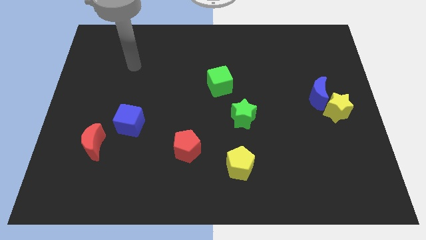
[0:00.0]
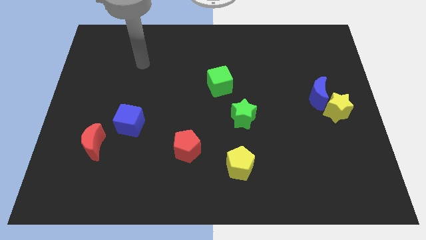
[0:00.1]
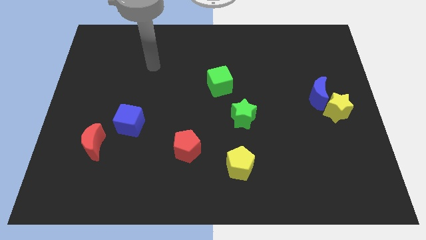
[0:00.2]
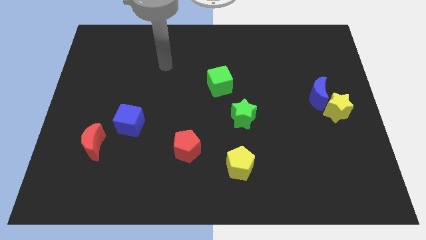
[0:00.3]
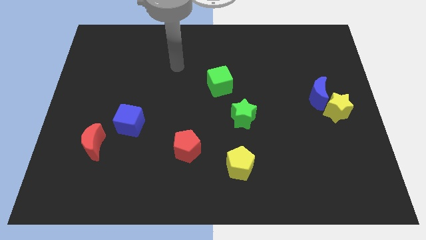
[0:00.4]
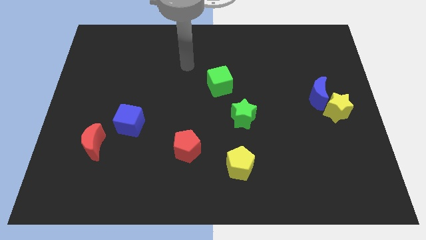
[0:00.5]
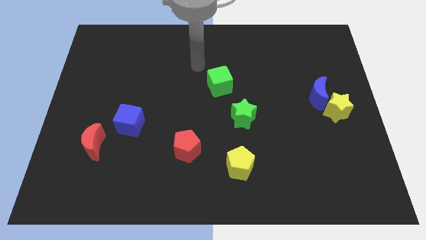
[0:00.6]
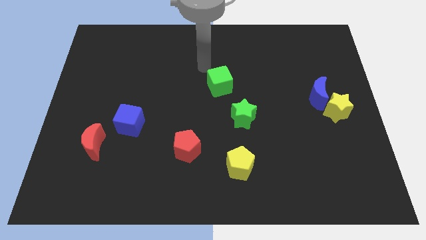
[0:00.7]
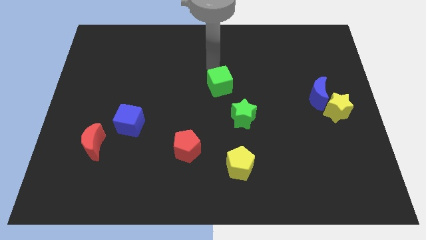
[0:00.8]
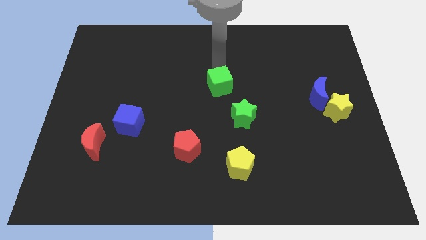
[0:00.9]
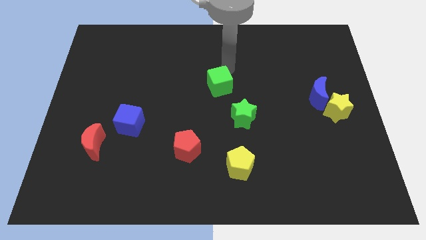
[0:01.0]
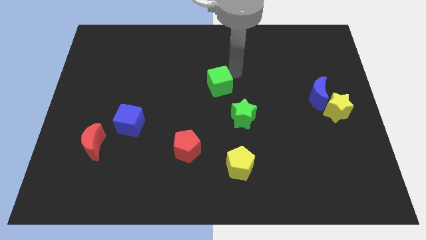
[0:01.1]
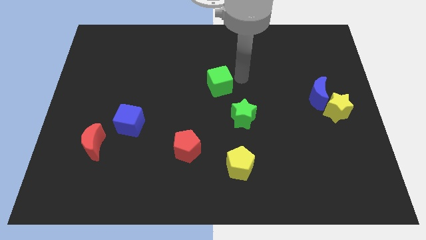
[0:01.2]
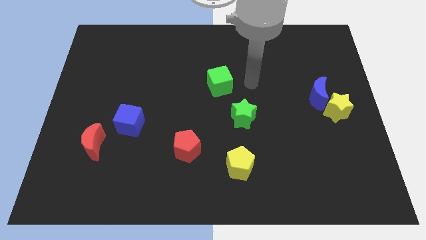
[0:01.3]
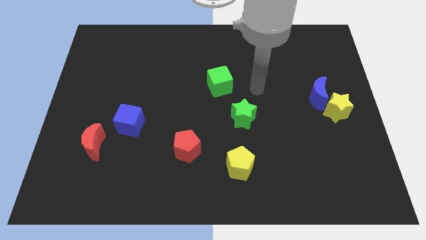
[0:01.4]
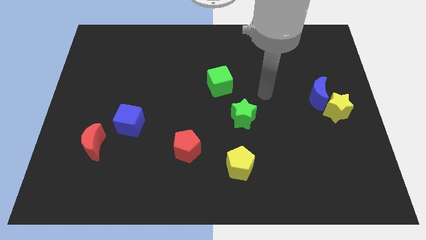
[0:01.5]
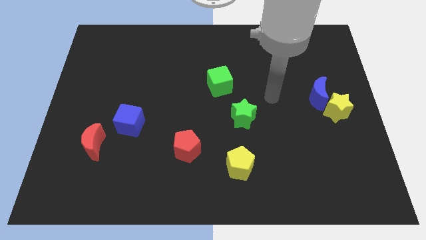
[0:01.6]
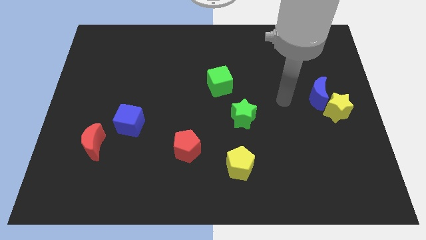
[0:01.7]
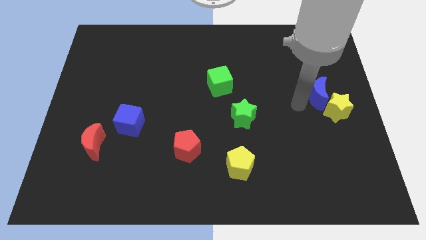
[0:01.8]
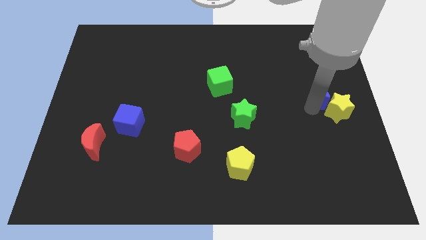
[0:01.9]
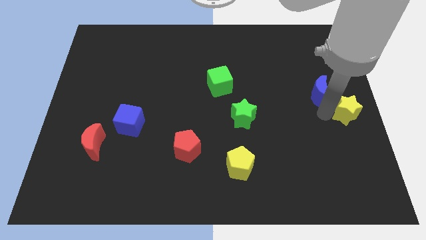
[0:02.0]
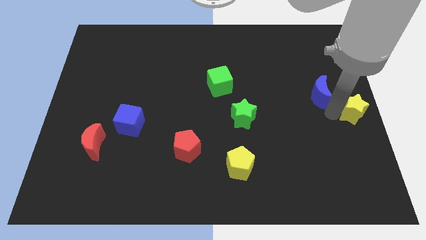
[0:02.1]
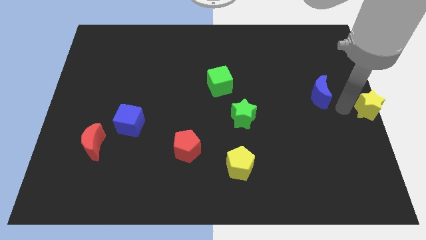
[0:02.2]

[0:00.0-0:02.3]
separate the blue moon from the yellow star

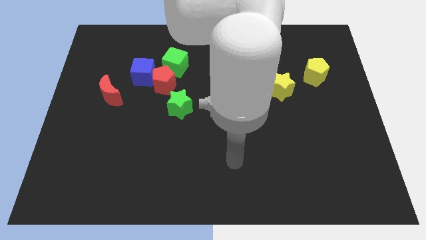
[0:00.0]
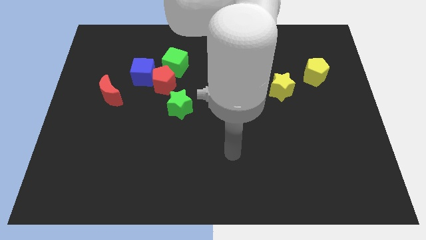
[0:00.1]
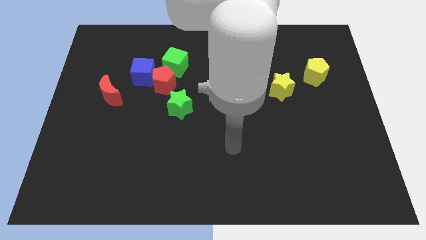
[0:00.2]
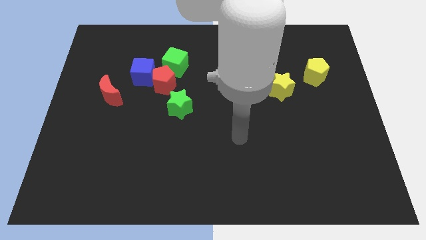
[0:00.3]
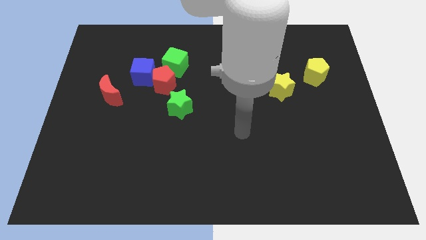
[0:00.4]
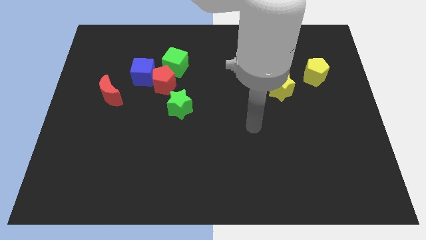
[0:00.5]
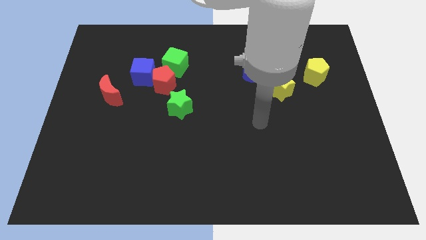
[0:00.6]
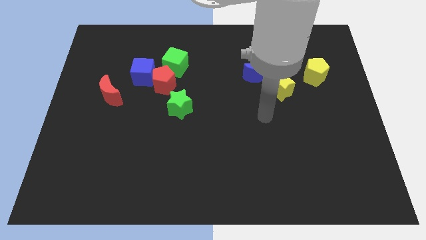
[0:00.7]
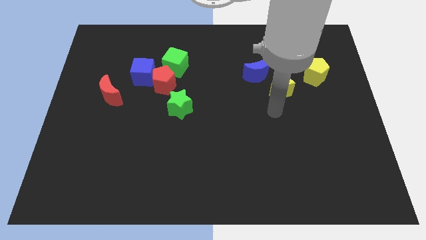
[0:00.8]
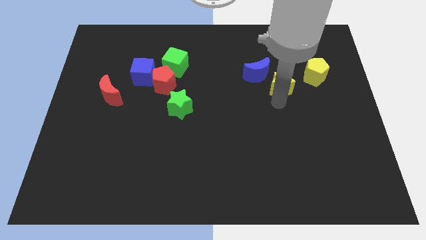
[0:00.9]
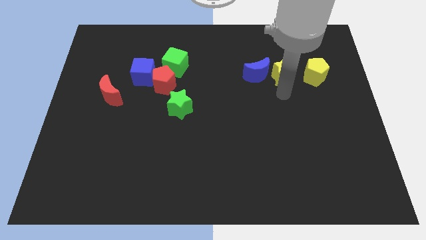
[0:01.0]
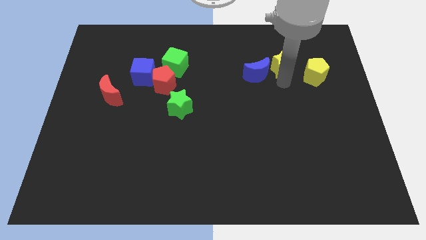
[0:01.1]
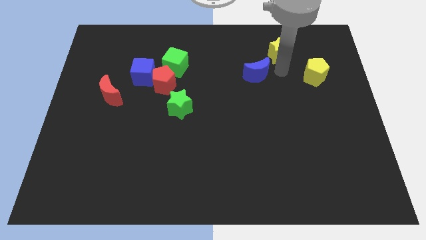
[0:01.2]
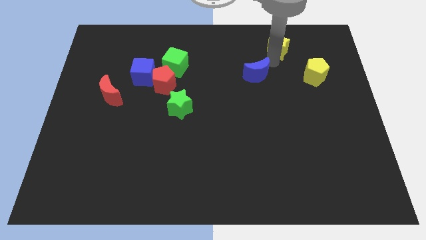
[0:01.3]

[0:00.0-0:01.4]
pull the blue moon apart from the yellow star

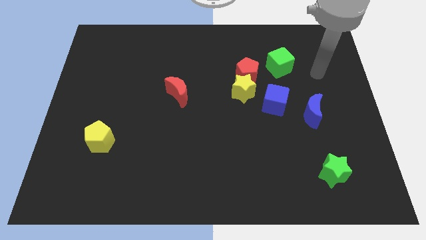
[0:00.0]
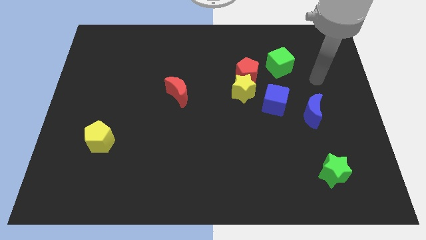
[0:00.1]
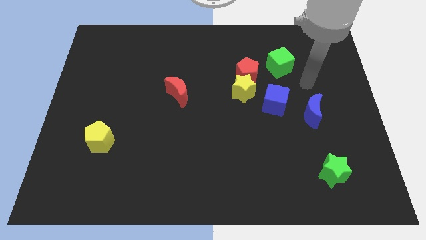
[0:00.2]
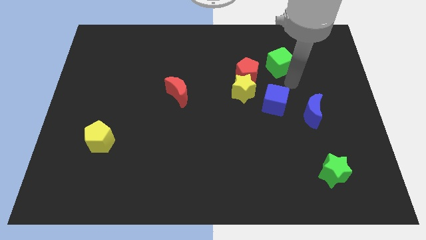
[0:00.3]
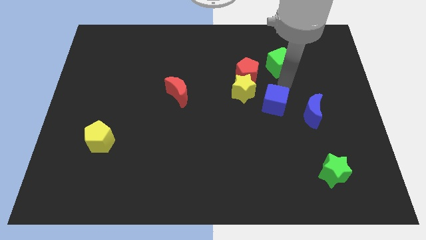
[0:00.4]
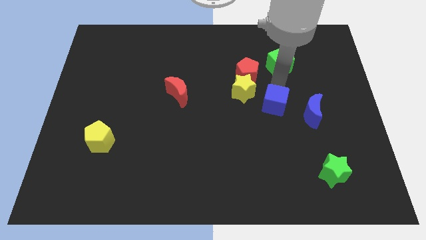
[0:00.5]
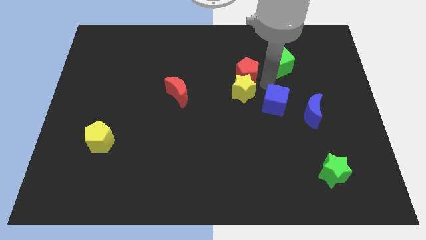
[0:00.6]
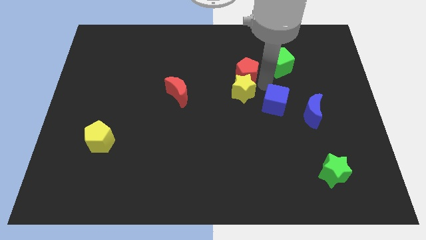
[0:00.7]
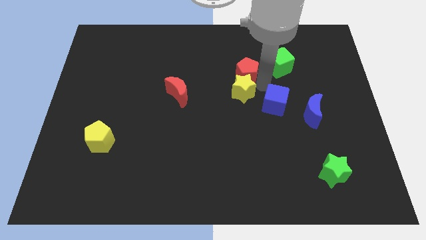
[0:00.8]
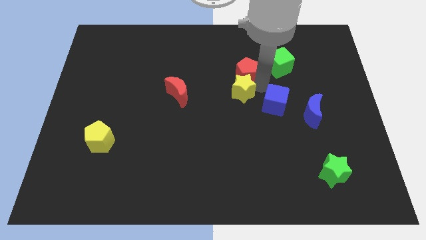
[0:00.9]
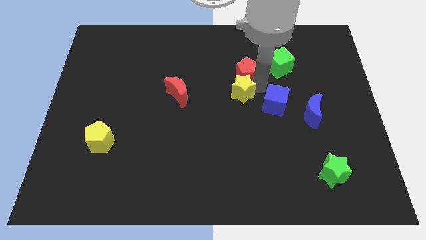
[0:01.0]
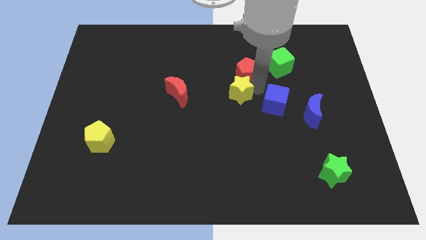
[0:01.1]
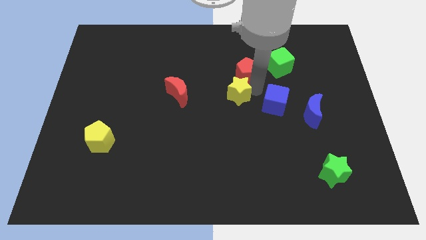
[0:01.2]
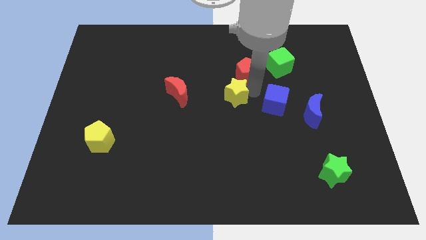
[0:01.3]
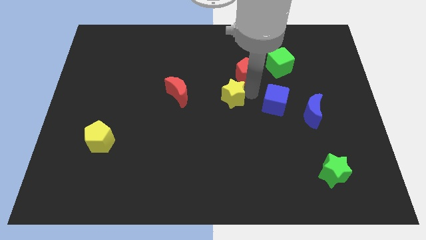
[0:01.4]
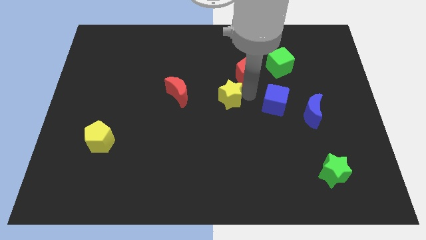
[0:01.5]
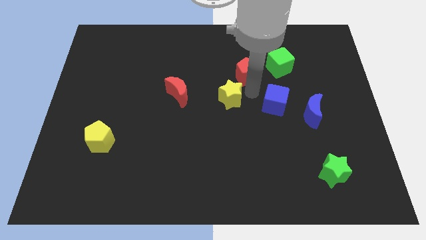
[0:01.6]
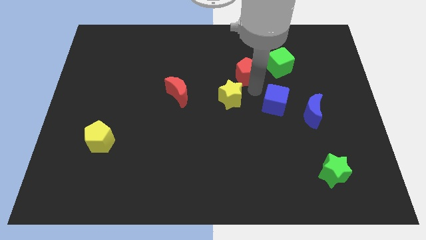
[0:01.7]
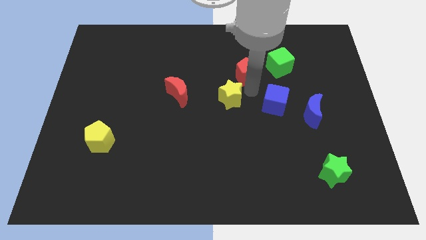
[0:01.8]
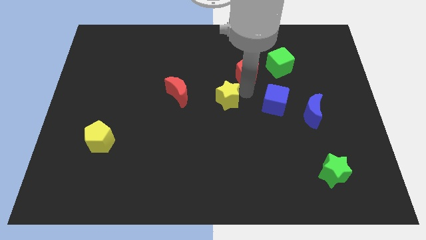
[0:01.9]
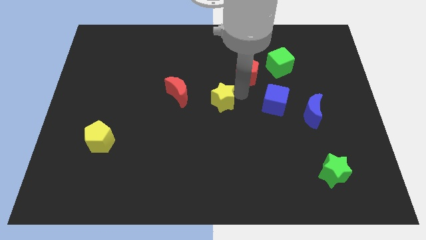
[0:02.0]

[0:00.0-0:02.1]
pull the yellow star apart from the red pentagon and blue cube

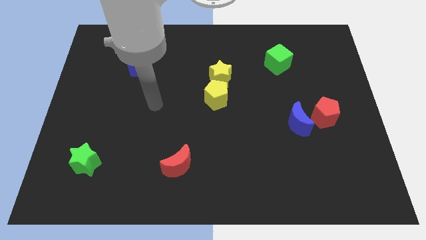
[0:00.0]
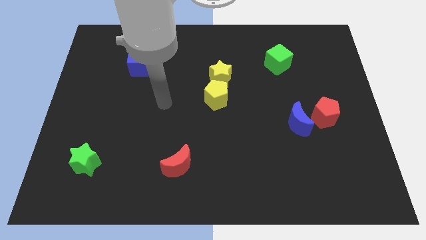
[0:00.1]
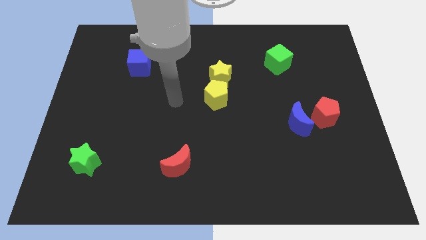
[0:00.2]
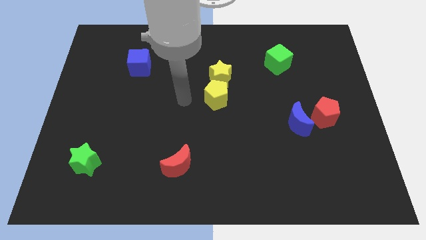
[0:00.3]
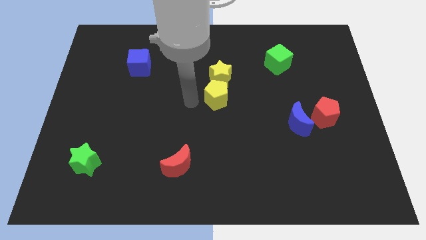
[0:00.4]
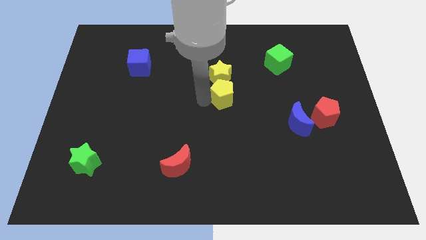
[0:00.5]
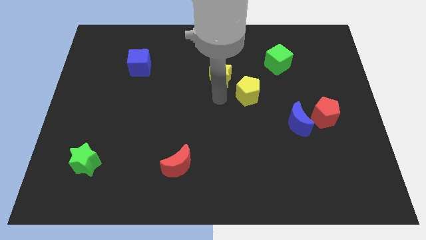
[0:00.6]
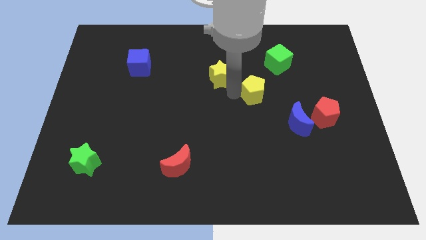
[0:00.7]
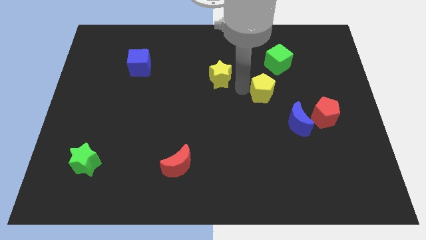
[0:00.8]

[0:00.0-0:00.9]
separate the yellow star from the yellow pentagon

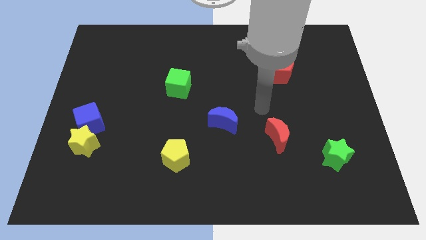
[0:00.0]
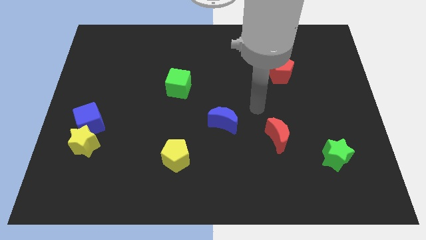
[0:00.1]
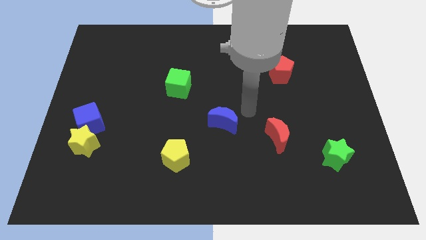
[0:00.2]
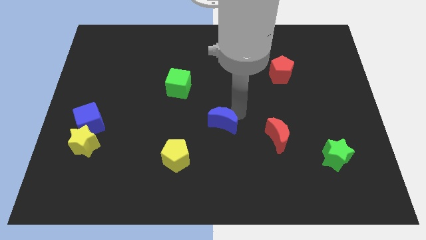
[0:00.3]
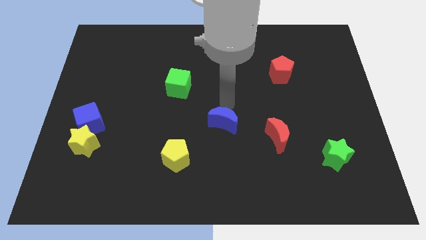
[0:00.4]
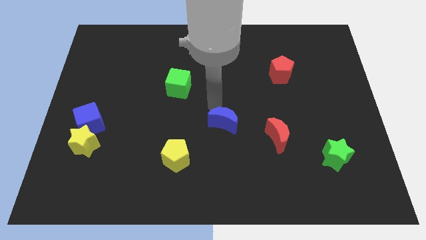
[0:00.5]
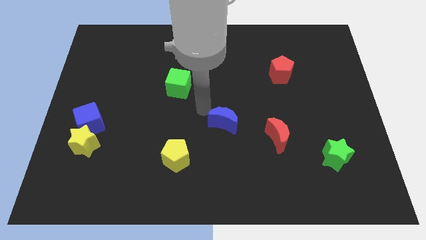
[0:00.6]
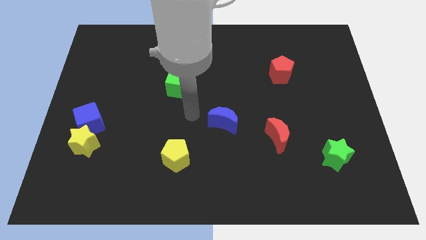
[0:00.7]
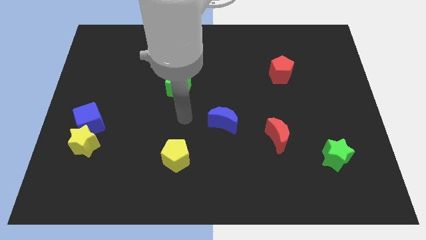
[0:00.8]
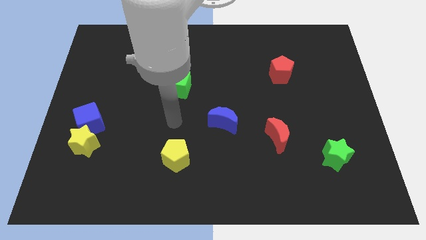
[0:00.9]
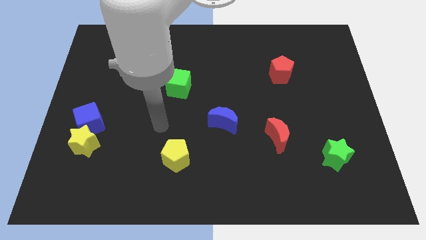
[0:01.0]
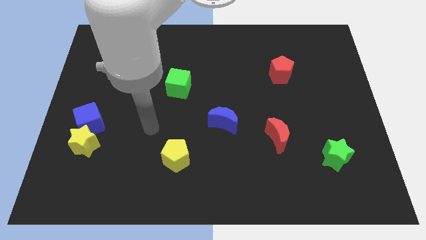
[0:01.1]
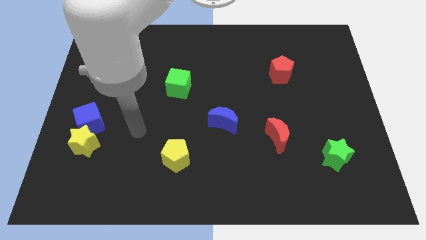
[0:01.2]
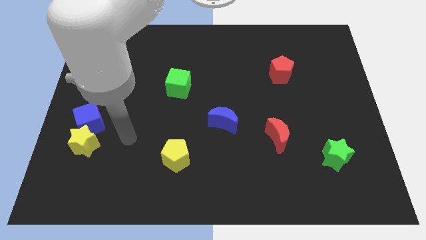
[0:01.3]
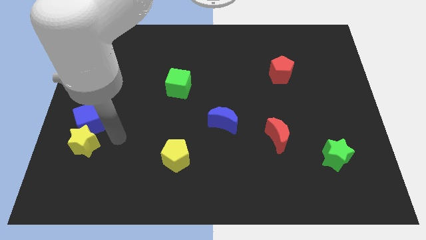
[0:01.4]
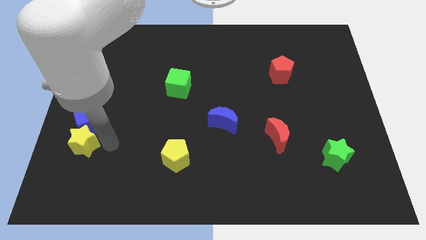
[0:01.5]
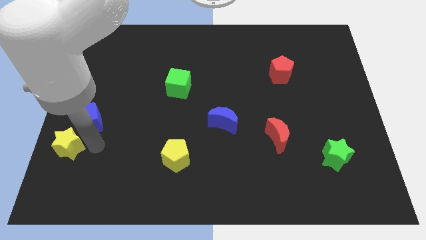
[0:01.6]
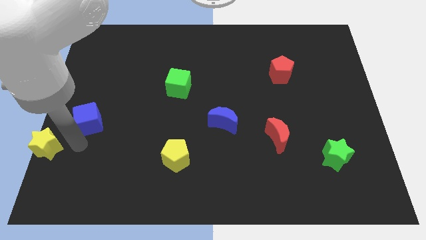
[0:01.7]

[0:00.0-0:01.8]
separate the blue cube from the yellow star

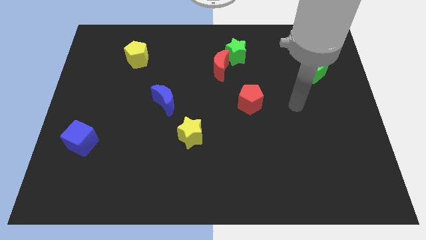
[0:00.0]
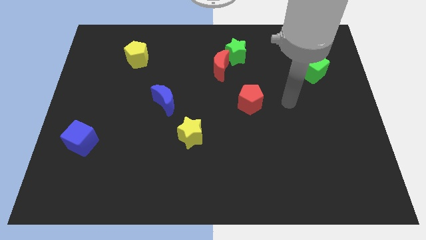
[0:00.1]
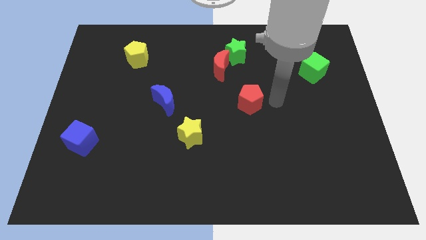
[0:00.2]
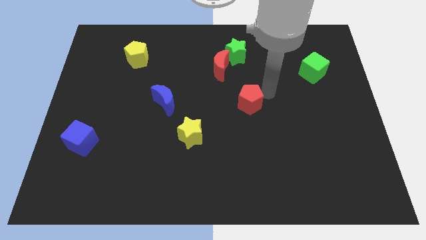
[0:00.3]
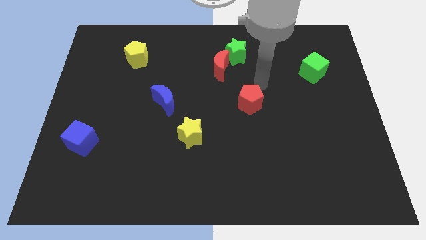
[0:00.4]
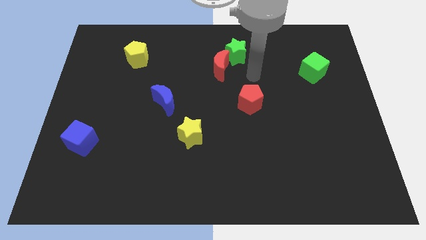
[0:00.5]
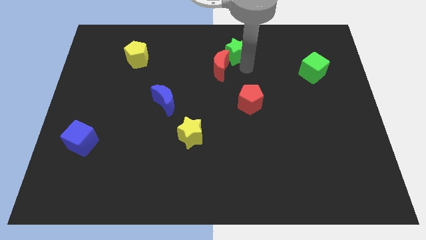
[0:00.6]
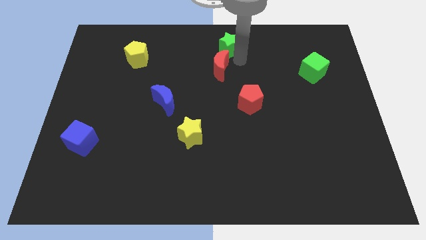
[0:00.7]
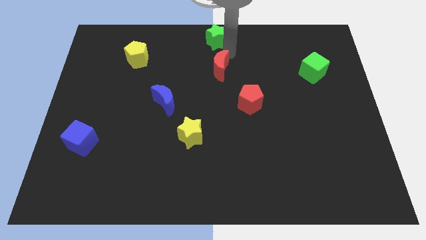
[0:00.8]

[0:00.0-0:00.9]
move the red moon away from the green star
